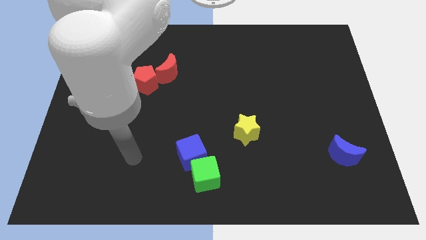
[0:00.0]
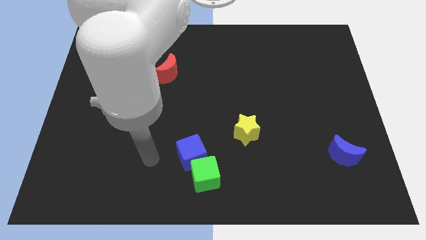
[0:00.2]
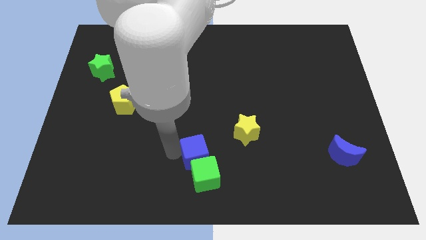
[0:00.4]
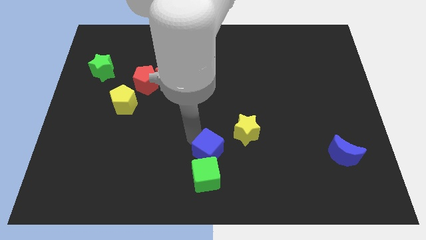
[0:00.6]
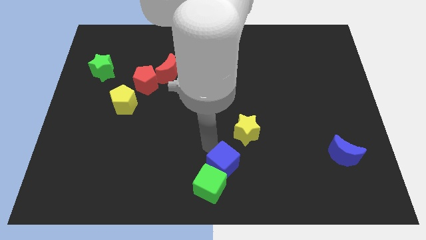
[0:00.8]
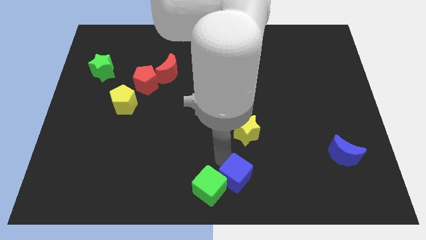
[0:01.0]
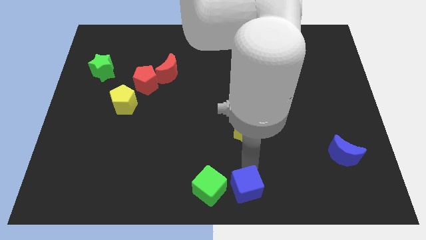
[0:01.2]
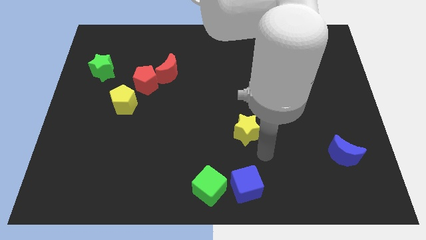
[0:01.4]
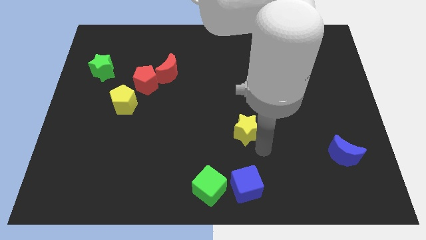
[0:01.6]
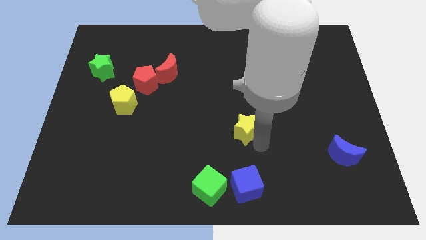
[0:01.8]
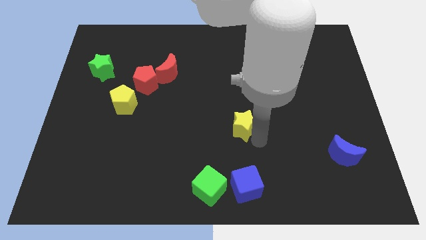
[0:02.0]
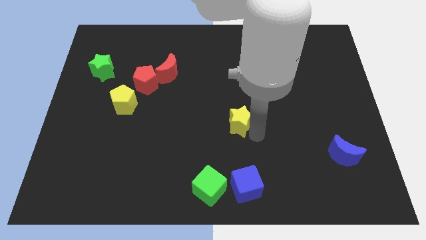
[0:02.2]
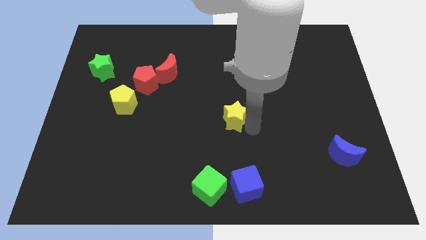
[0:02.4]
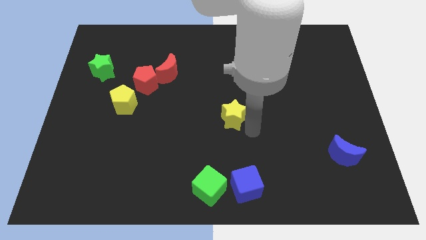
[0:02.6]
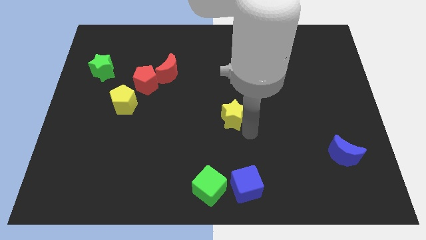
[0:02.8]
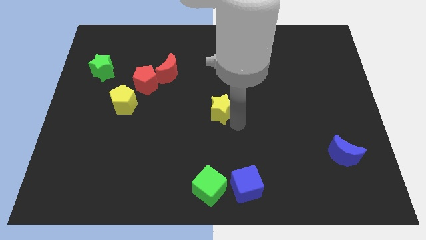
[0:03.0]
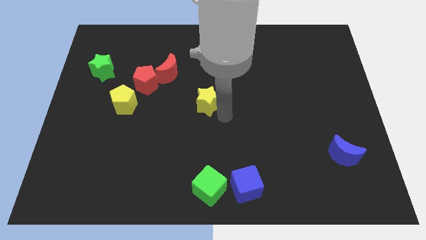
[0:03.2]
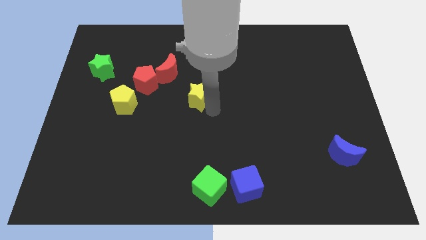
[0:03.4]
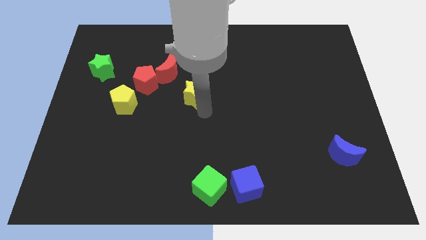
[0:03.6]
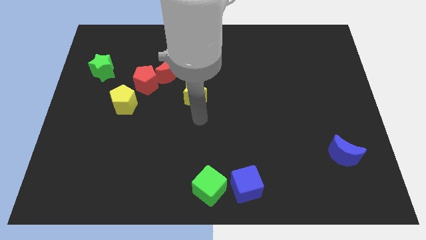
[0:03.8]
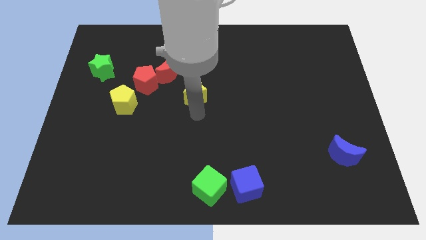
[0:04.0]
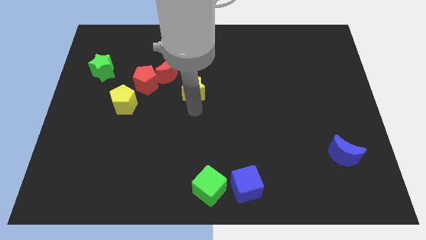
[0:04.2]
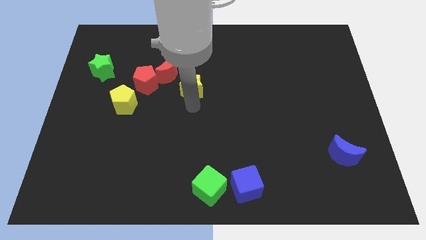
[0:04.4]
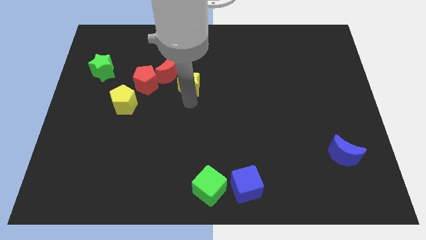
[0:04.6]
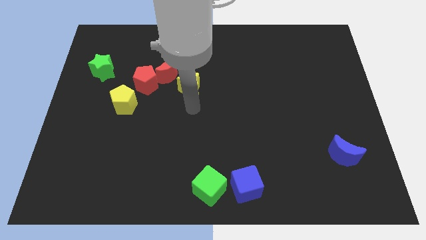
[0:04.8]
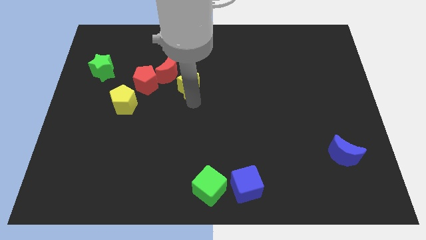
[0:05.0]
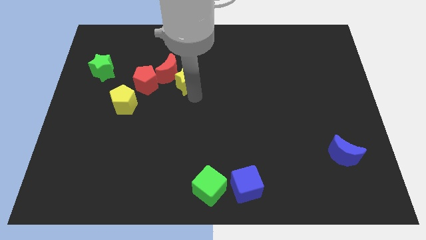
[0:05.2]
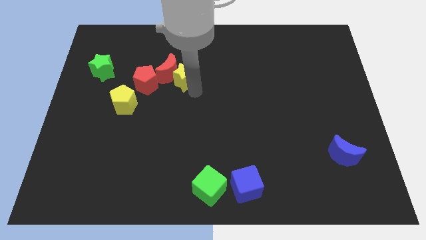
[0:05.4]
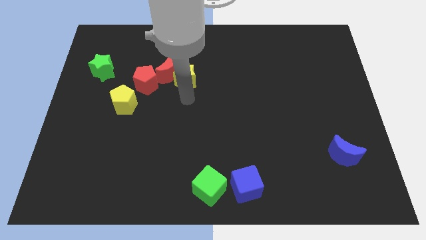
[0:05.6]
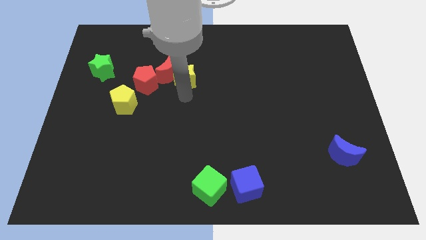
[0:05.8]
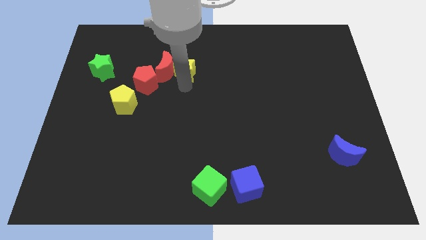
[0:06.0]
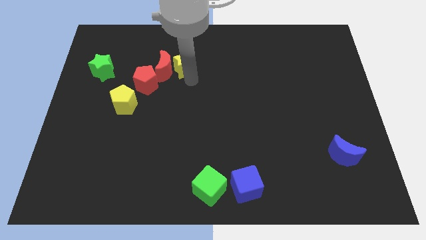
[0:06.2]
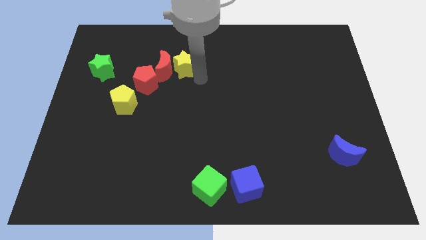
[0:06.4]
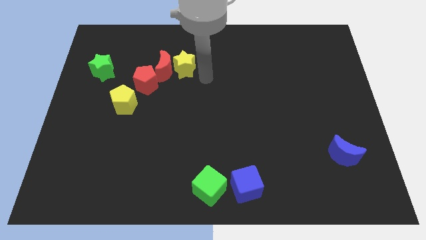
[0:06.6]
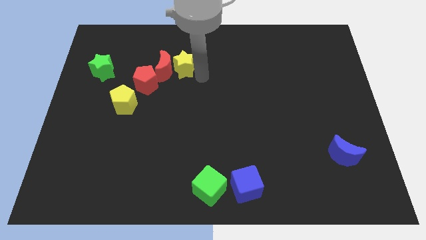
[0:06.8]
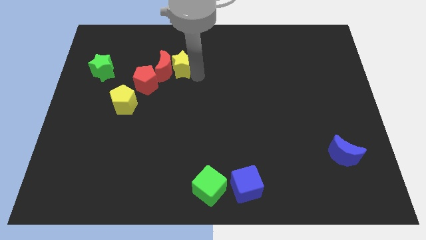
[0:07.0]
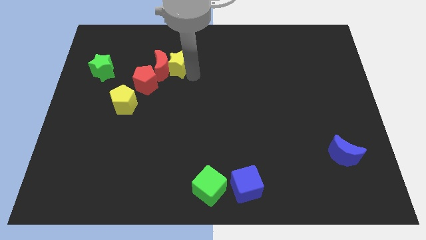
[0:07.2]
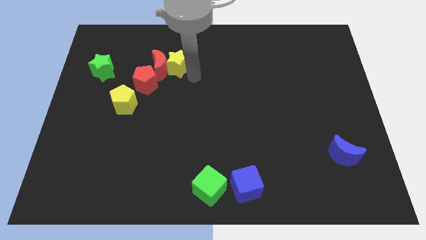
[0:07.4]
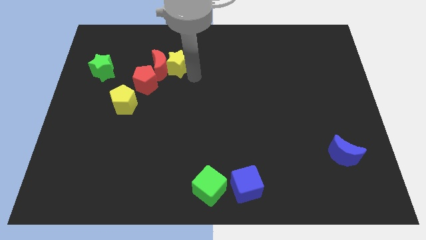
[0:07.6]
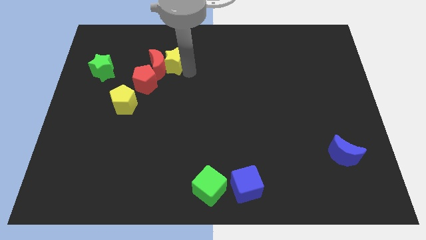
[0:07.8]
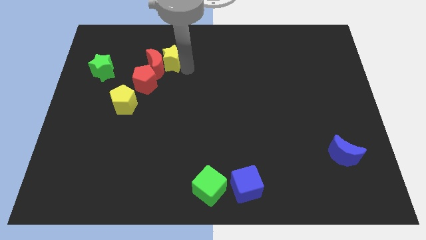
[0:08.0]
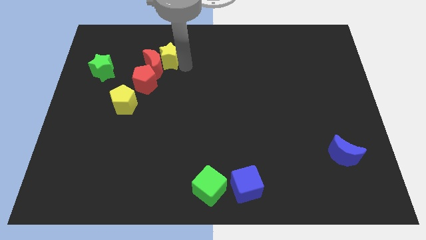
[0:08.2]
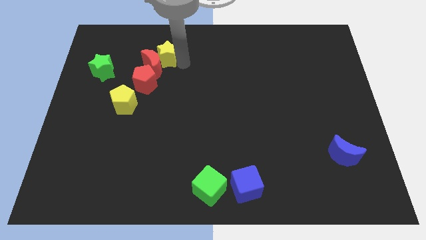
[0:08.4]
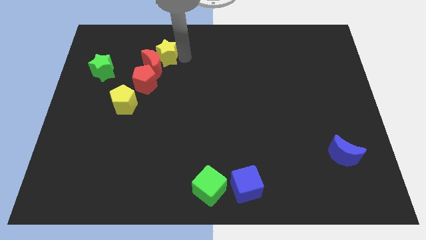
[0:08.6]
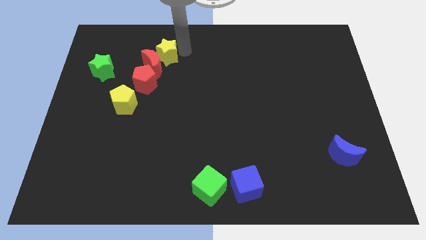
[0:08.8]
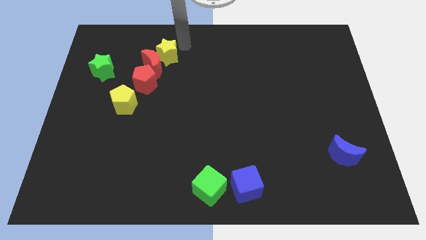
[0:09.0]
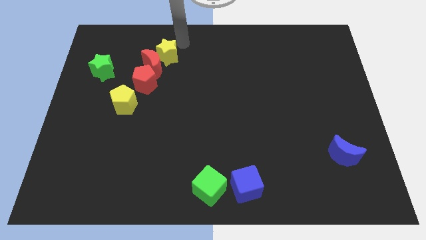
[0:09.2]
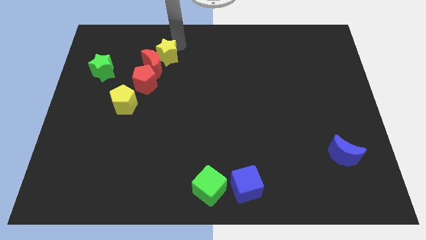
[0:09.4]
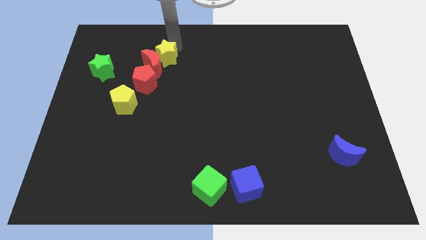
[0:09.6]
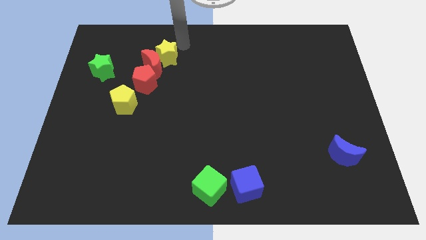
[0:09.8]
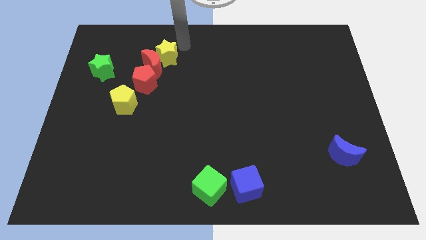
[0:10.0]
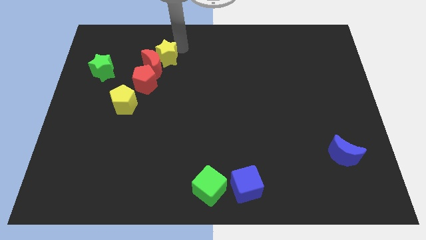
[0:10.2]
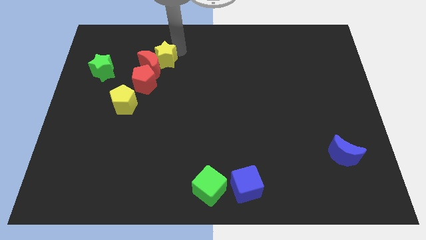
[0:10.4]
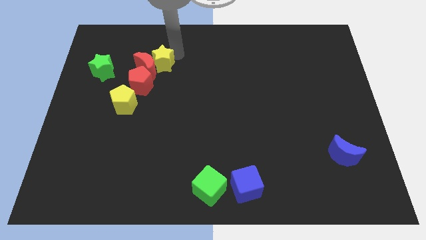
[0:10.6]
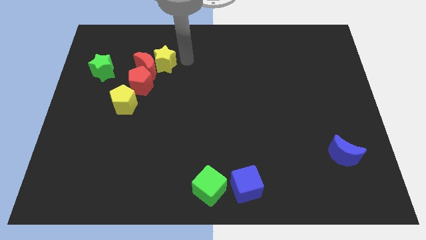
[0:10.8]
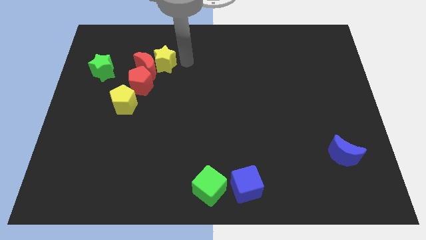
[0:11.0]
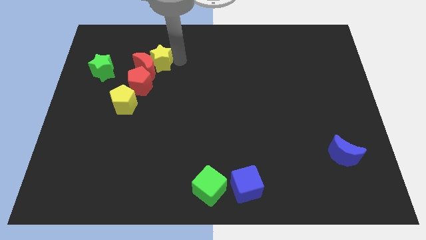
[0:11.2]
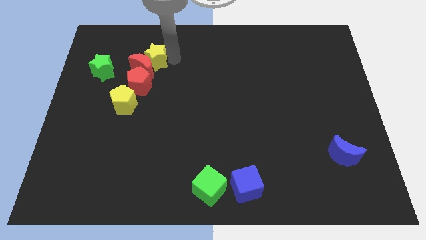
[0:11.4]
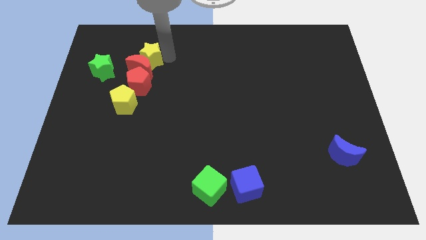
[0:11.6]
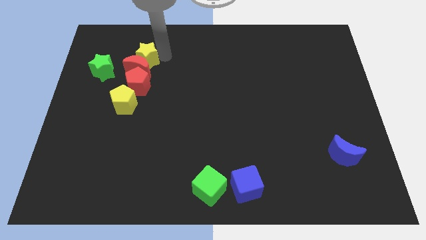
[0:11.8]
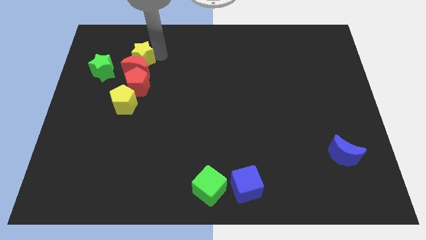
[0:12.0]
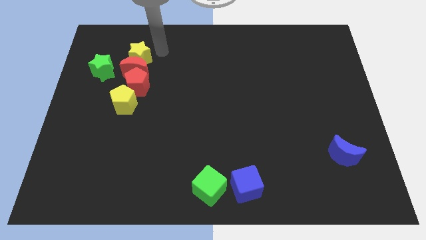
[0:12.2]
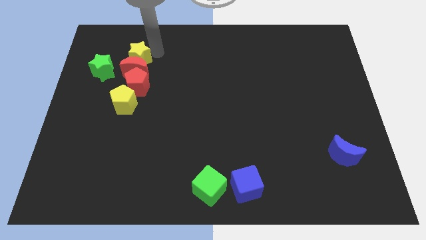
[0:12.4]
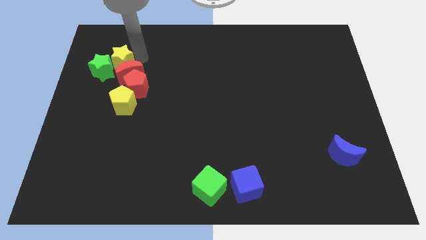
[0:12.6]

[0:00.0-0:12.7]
slide the yellow star close to the green star

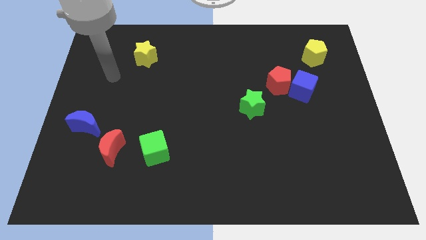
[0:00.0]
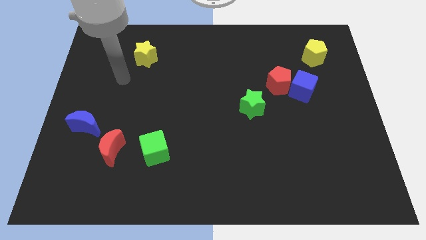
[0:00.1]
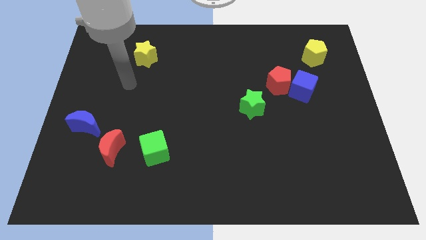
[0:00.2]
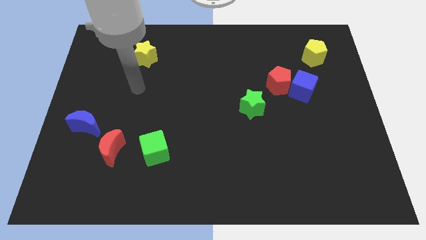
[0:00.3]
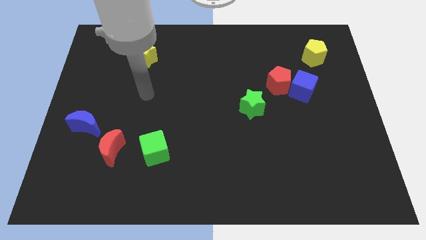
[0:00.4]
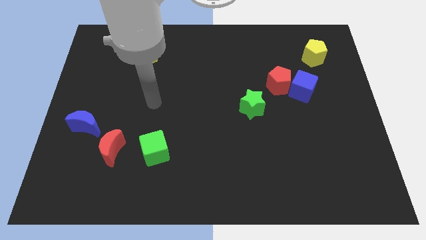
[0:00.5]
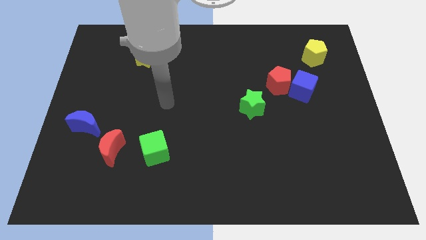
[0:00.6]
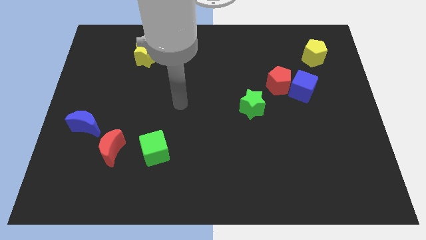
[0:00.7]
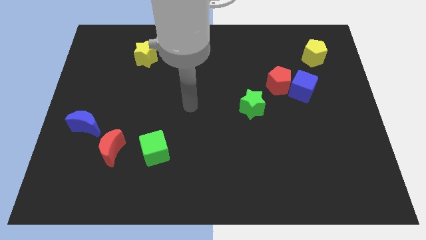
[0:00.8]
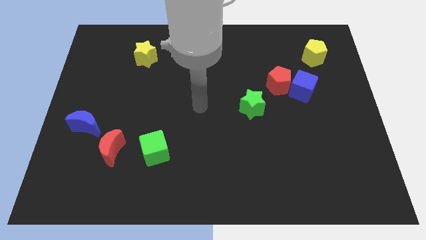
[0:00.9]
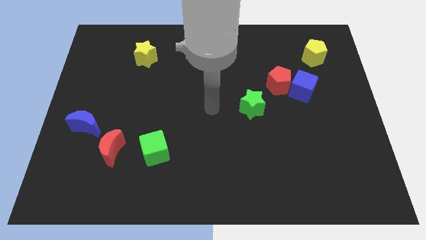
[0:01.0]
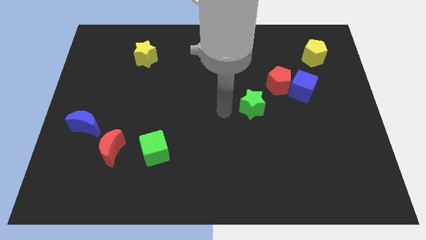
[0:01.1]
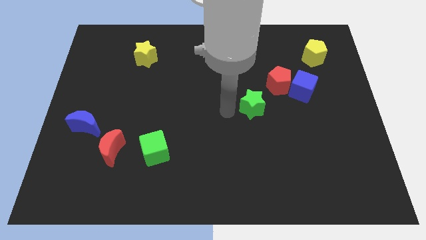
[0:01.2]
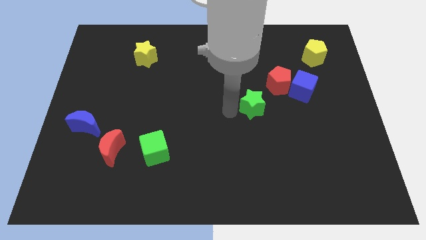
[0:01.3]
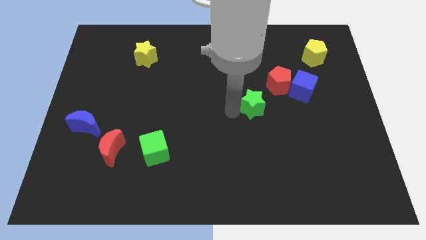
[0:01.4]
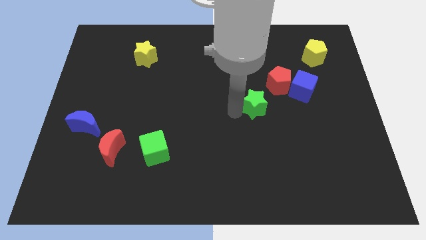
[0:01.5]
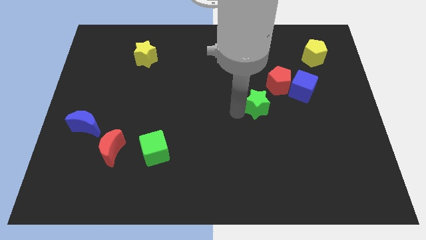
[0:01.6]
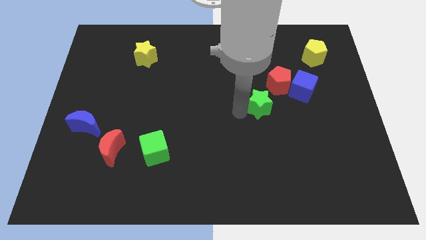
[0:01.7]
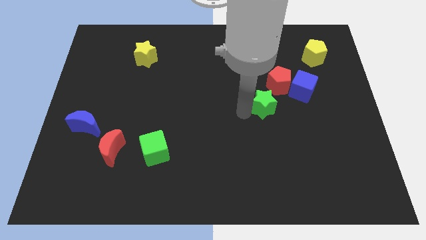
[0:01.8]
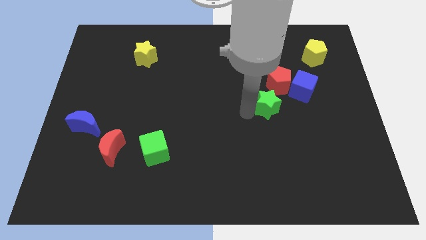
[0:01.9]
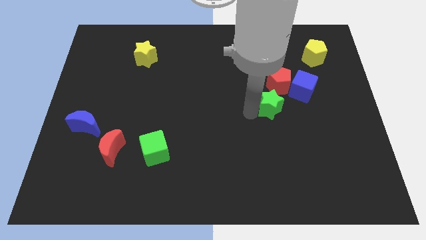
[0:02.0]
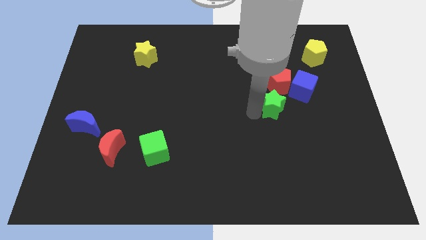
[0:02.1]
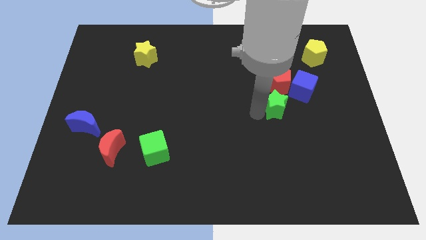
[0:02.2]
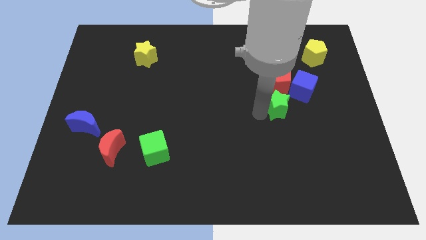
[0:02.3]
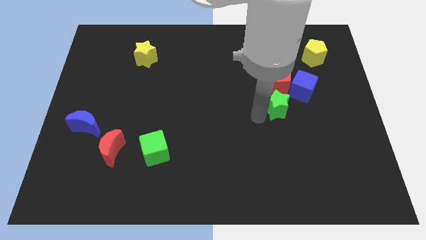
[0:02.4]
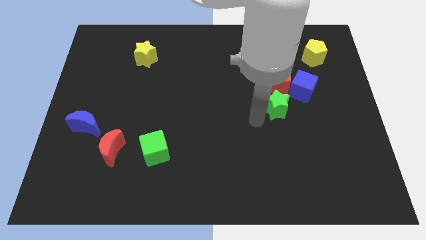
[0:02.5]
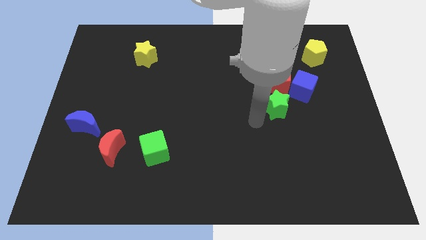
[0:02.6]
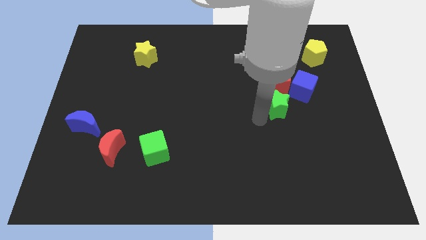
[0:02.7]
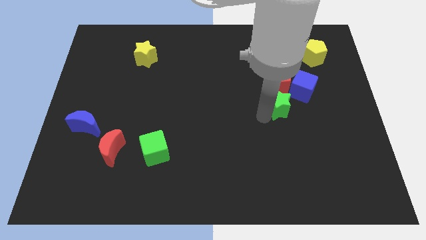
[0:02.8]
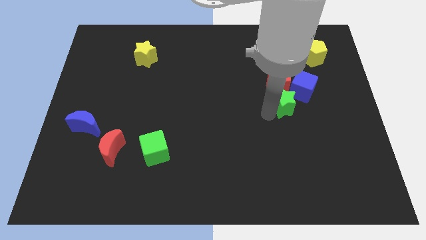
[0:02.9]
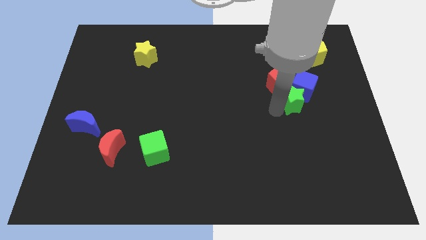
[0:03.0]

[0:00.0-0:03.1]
push the green star towards the blue cube
